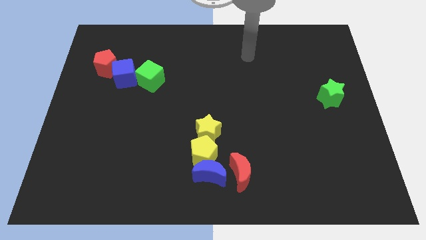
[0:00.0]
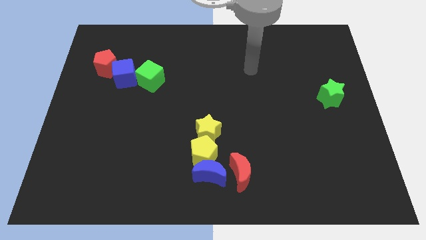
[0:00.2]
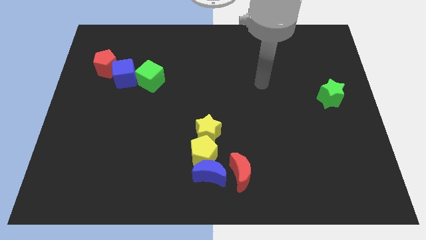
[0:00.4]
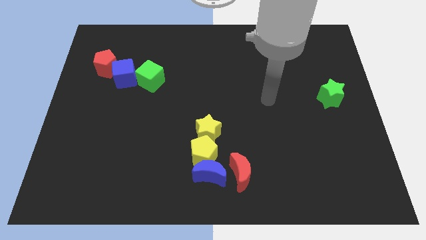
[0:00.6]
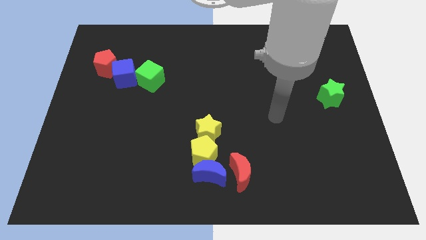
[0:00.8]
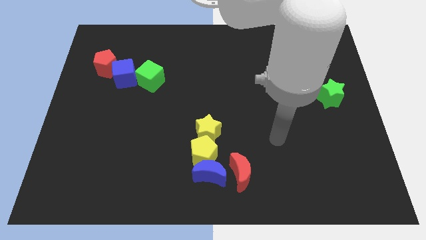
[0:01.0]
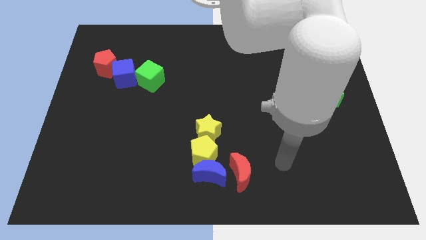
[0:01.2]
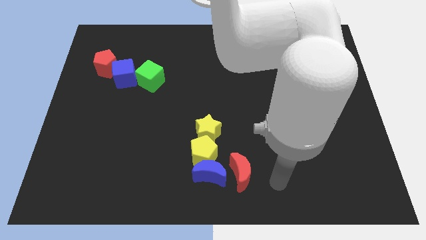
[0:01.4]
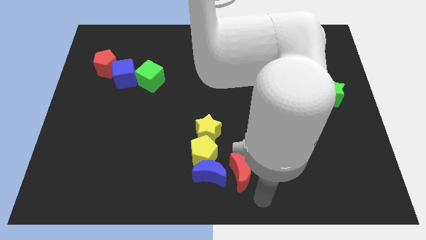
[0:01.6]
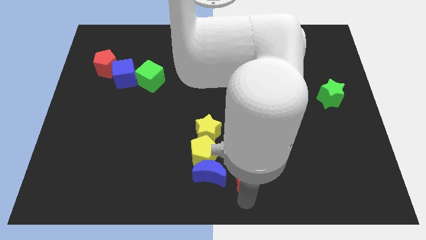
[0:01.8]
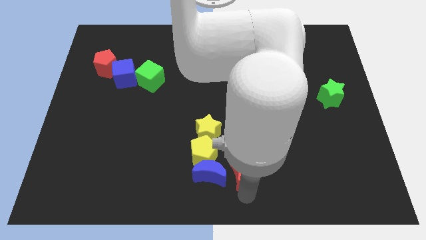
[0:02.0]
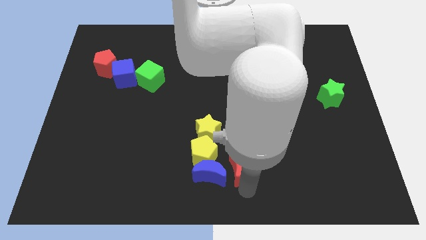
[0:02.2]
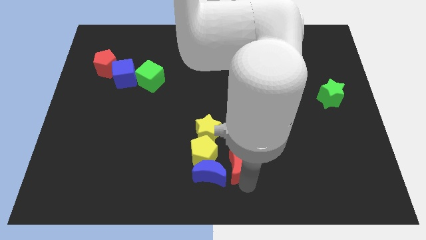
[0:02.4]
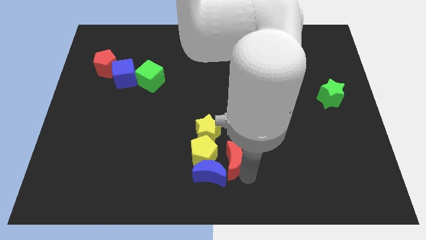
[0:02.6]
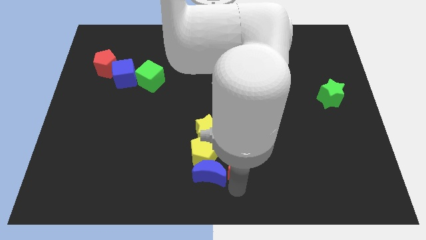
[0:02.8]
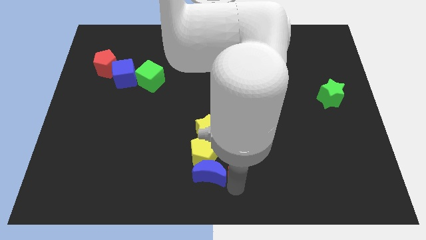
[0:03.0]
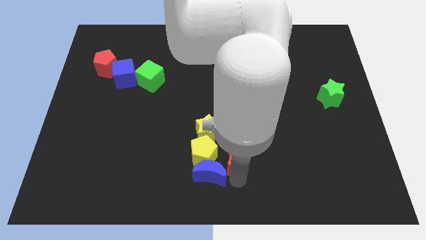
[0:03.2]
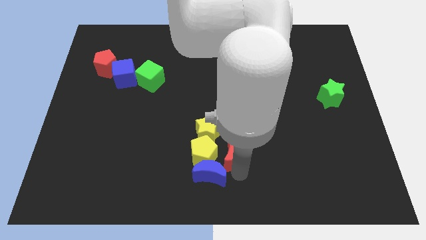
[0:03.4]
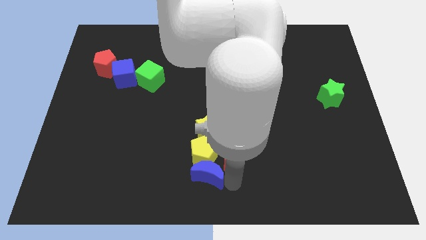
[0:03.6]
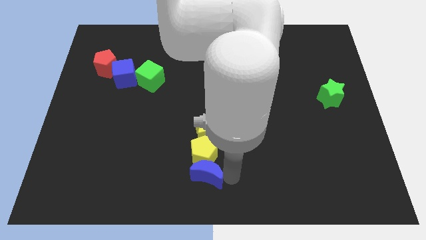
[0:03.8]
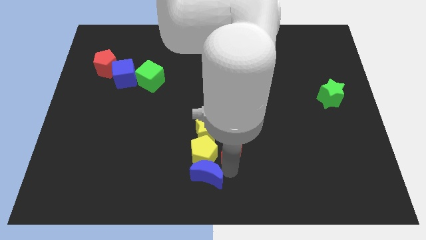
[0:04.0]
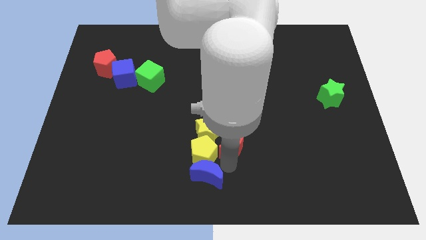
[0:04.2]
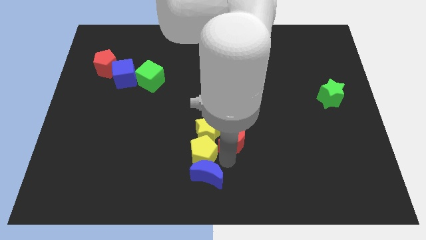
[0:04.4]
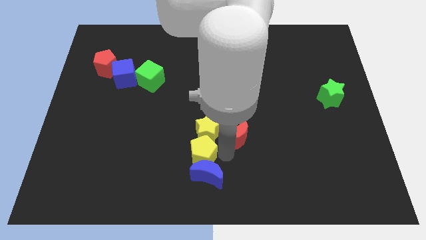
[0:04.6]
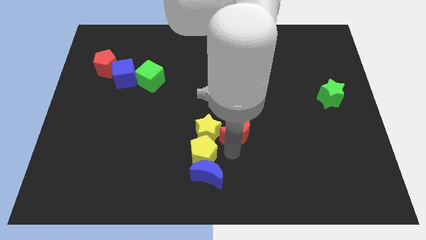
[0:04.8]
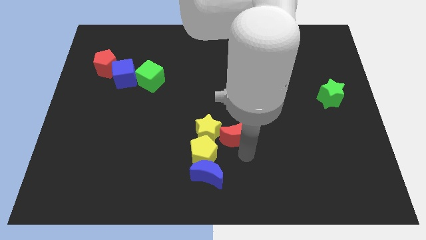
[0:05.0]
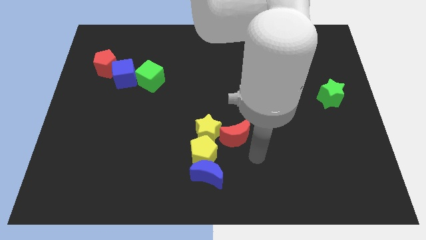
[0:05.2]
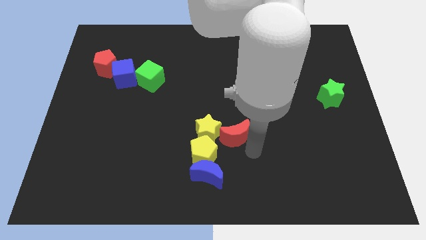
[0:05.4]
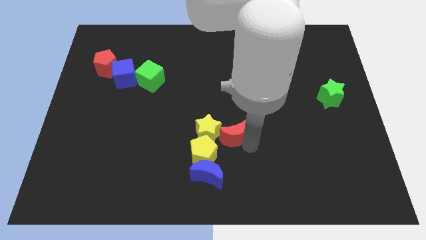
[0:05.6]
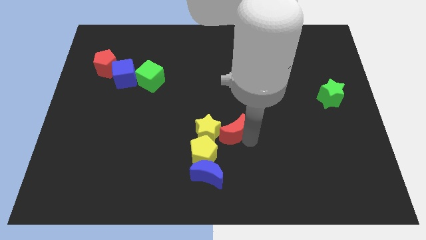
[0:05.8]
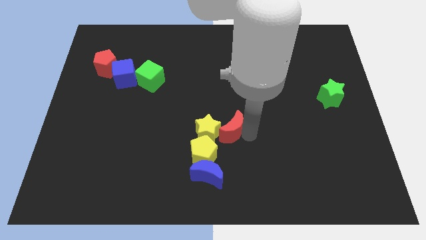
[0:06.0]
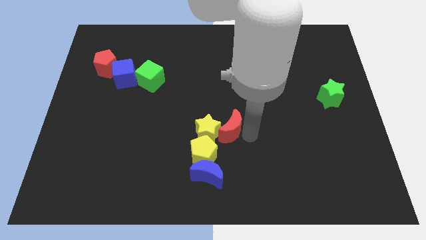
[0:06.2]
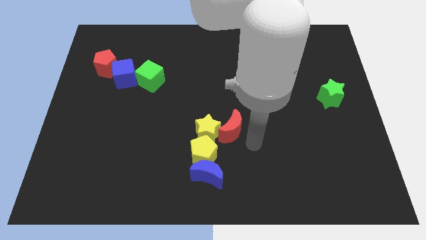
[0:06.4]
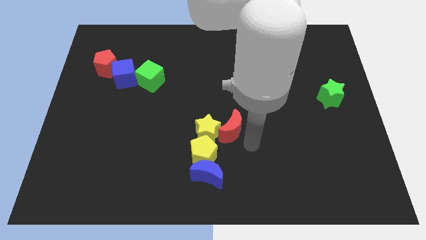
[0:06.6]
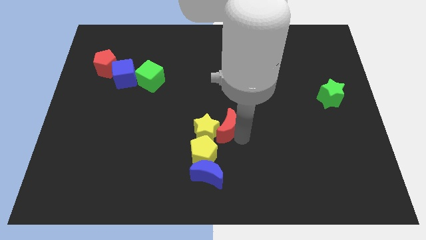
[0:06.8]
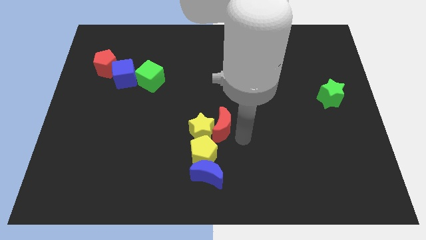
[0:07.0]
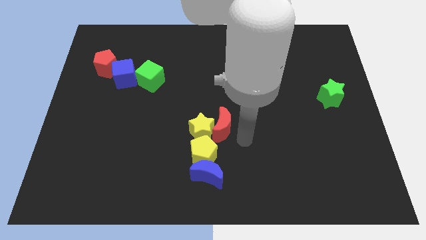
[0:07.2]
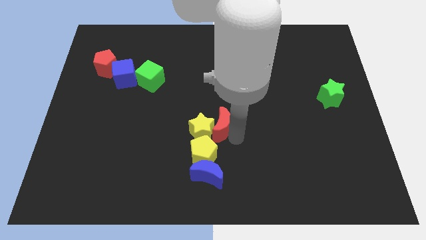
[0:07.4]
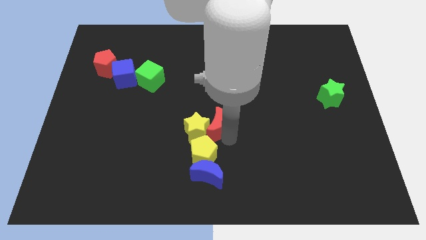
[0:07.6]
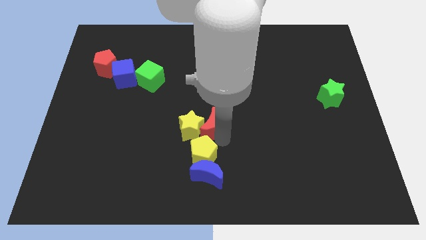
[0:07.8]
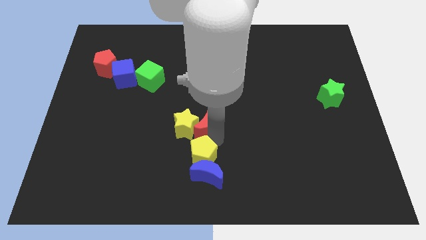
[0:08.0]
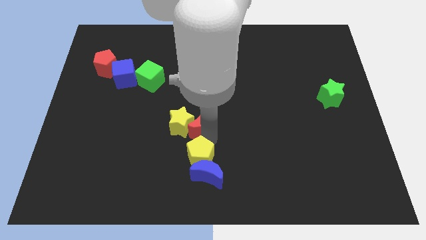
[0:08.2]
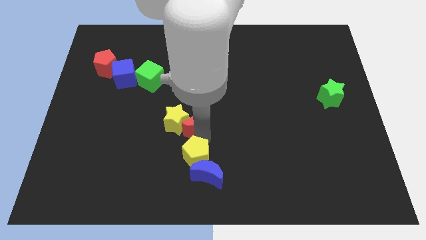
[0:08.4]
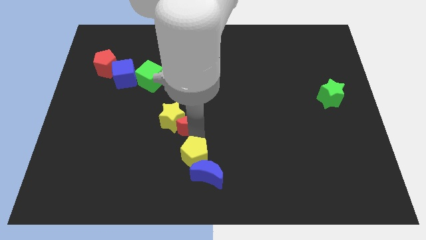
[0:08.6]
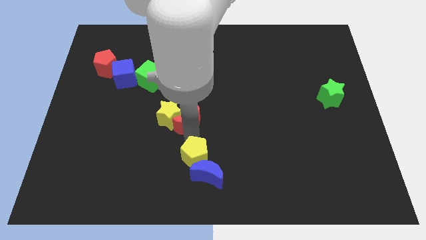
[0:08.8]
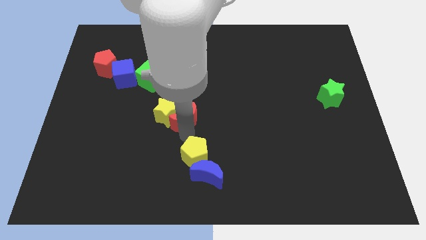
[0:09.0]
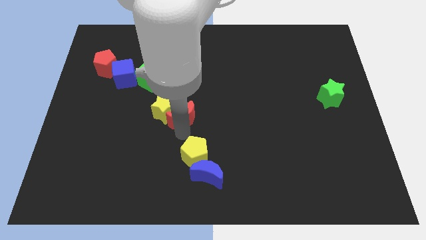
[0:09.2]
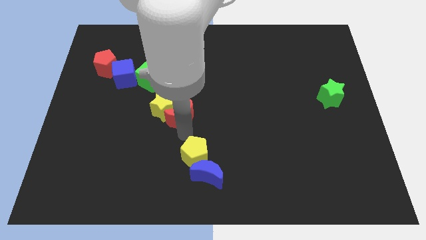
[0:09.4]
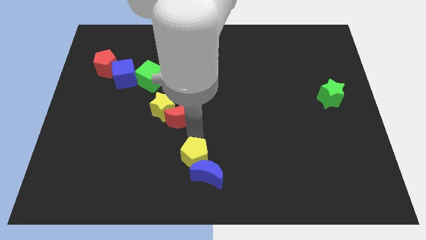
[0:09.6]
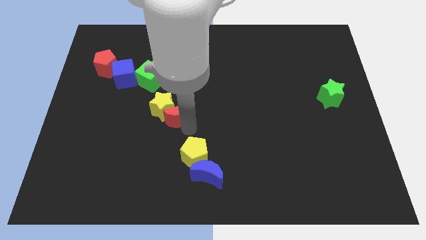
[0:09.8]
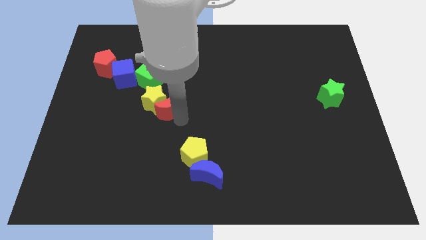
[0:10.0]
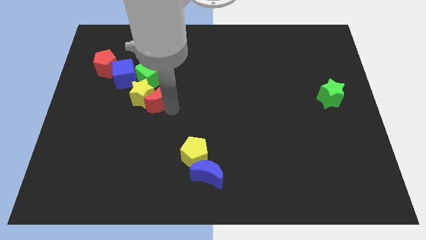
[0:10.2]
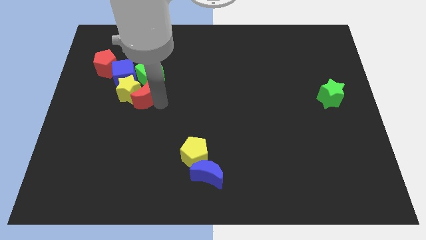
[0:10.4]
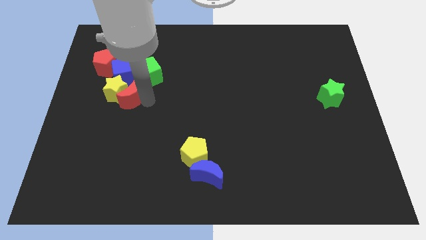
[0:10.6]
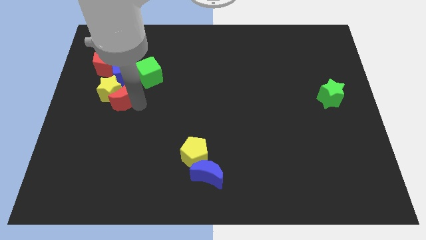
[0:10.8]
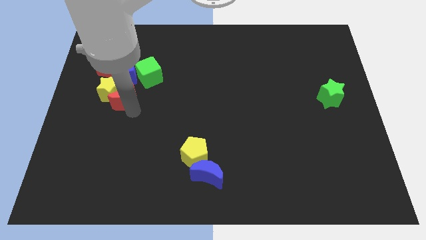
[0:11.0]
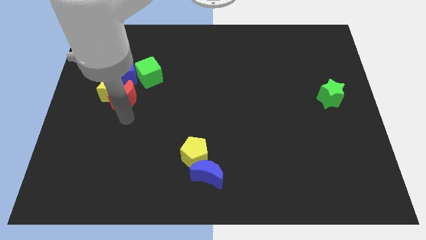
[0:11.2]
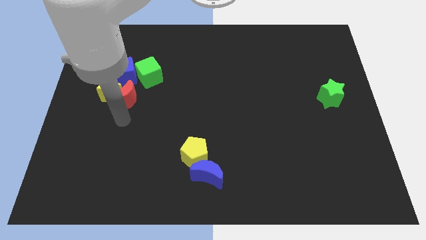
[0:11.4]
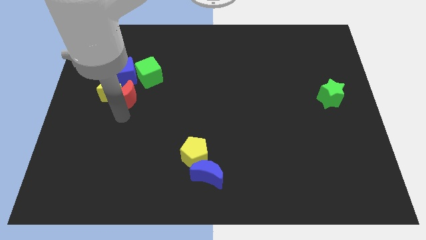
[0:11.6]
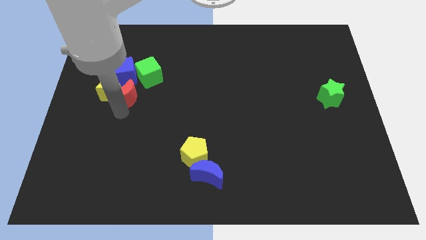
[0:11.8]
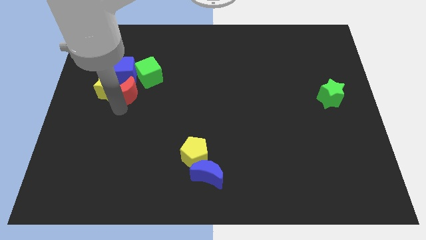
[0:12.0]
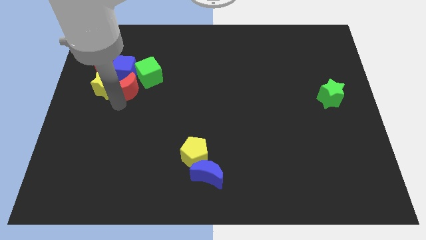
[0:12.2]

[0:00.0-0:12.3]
slide the red moon next to the blue cube

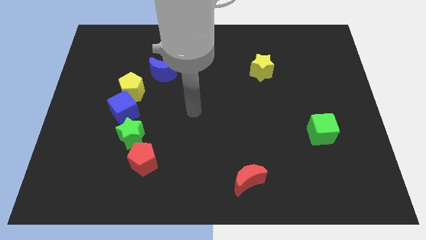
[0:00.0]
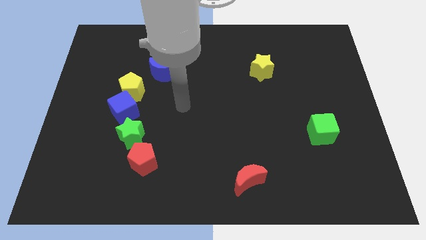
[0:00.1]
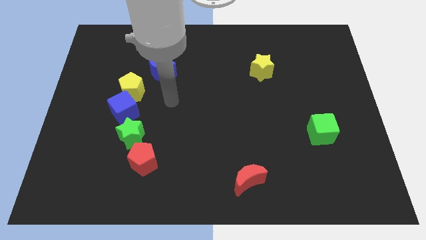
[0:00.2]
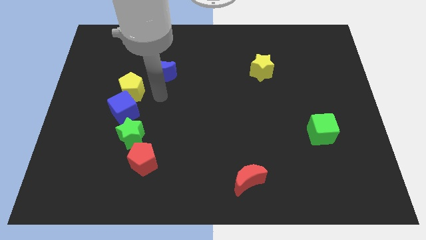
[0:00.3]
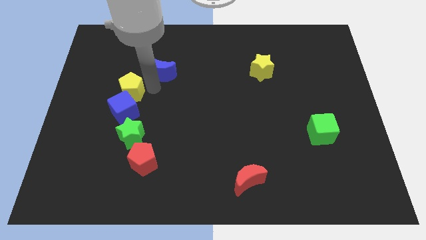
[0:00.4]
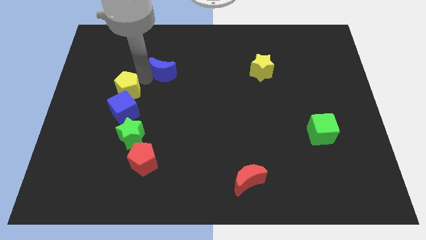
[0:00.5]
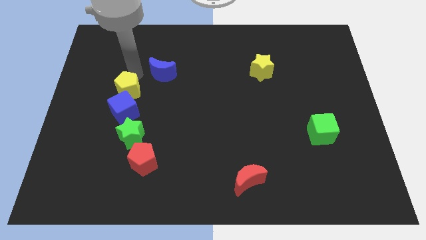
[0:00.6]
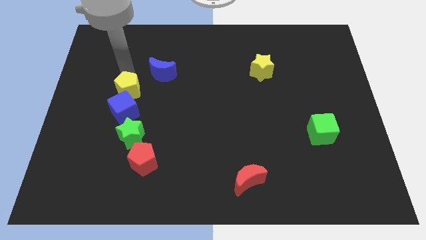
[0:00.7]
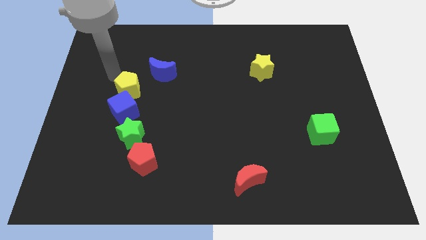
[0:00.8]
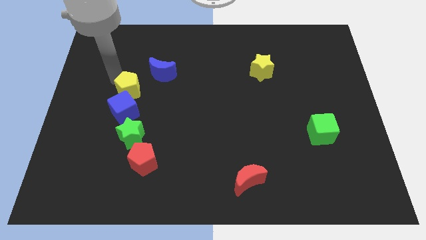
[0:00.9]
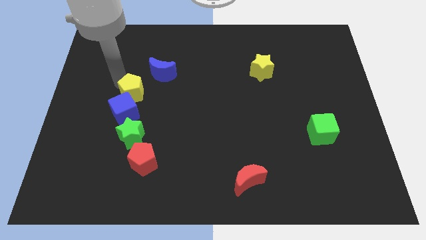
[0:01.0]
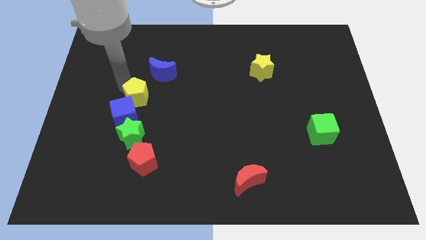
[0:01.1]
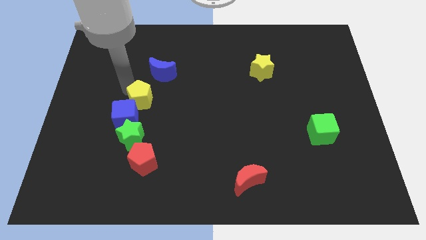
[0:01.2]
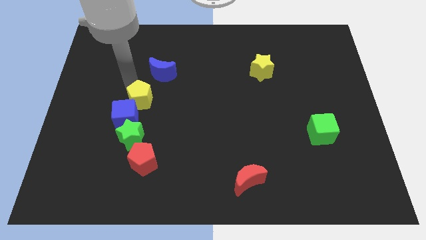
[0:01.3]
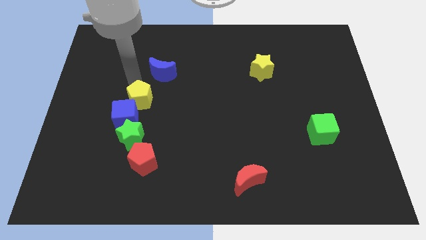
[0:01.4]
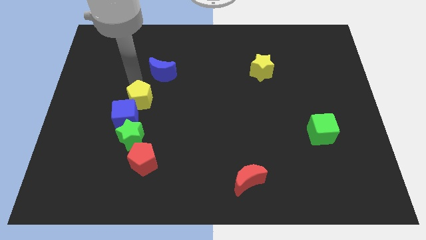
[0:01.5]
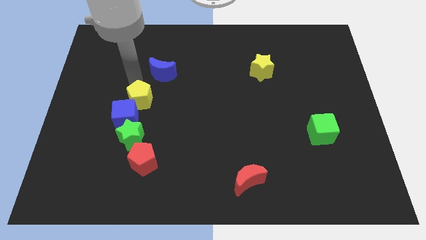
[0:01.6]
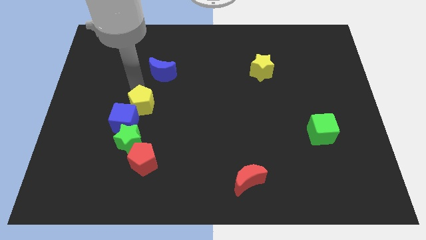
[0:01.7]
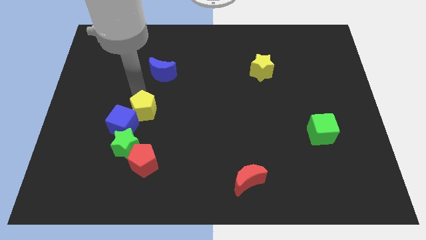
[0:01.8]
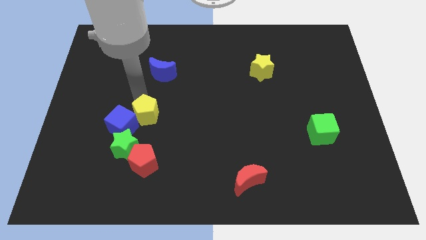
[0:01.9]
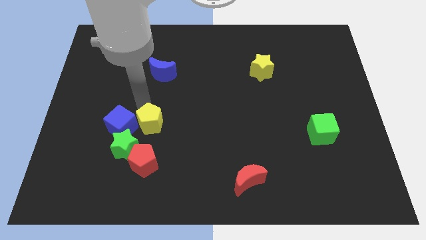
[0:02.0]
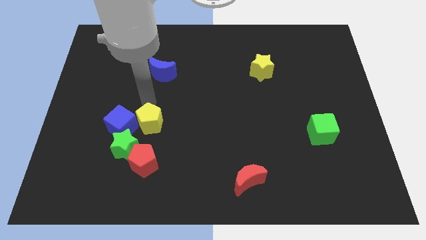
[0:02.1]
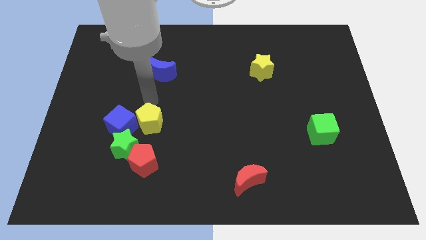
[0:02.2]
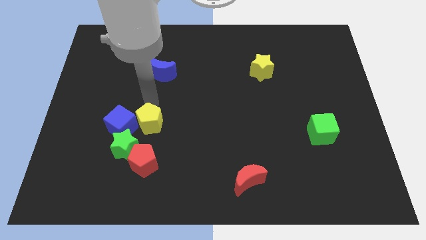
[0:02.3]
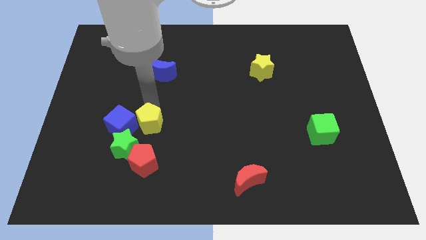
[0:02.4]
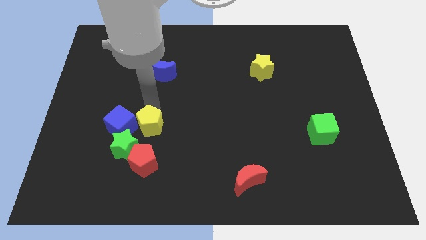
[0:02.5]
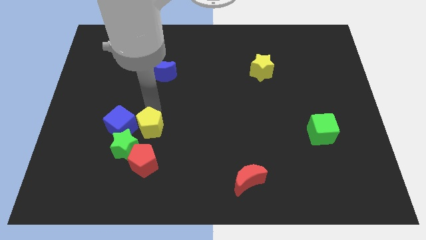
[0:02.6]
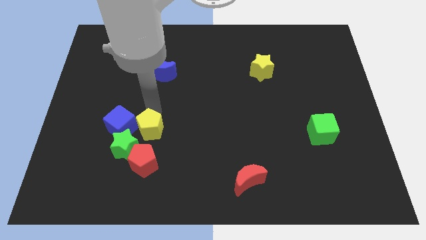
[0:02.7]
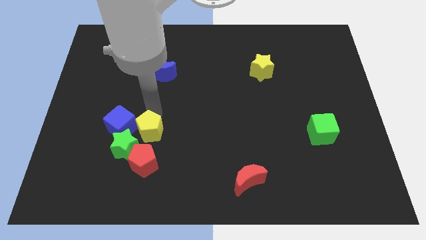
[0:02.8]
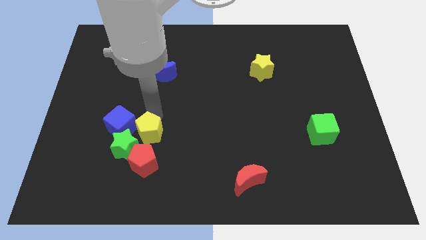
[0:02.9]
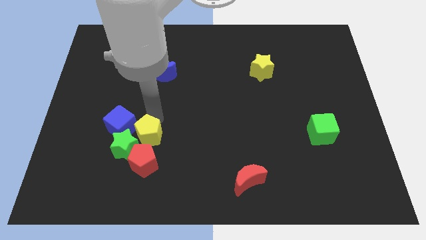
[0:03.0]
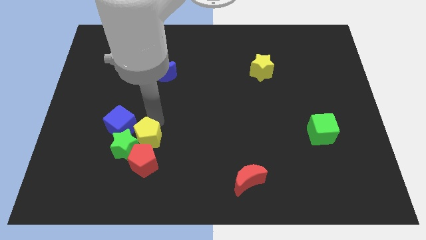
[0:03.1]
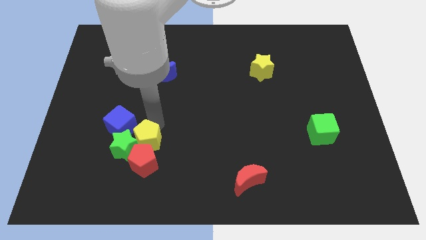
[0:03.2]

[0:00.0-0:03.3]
slide the yellow pentagon next to the red pentagon
